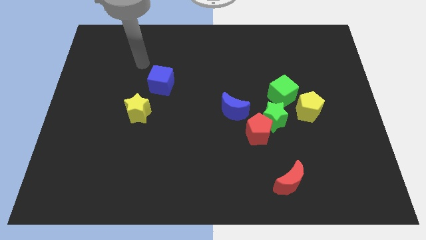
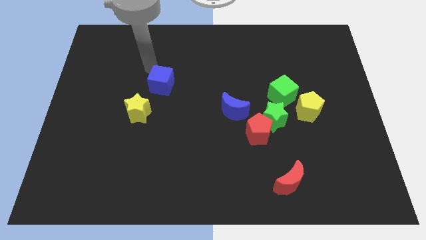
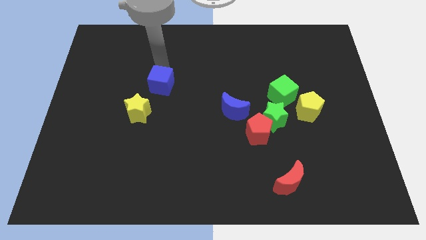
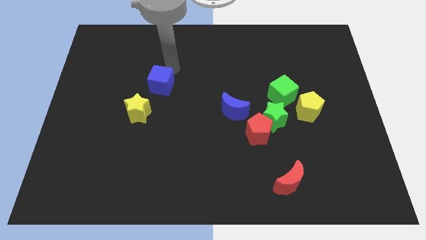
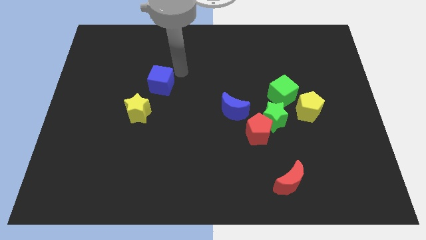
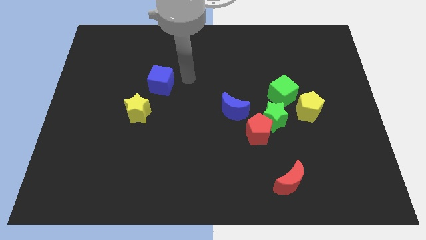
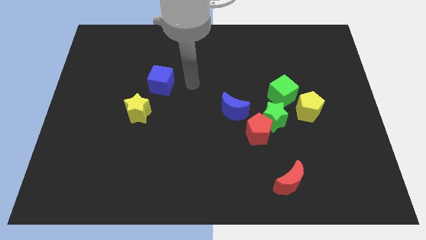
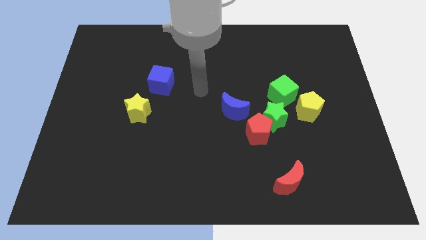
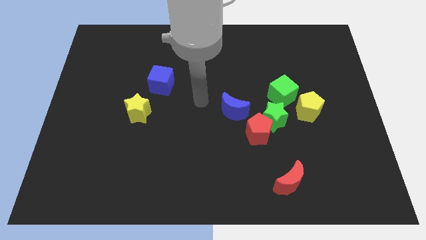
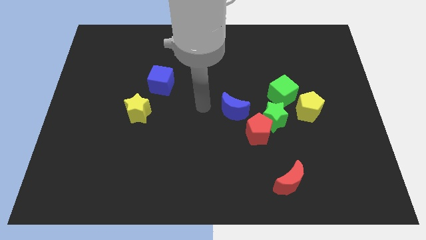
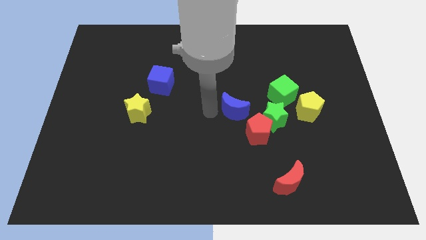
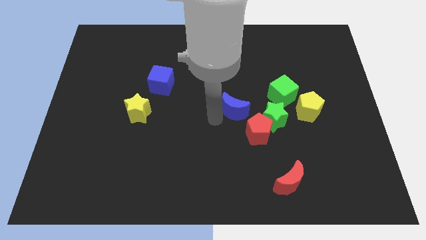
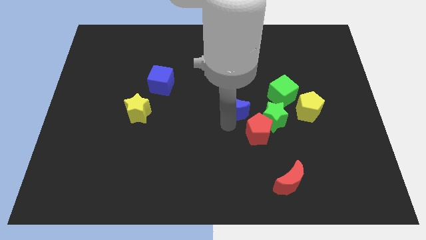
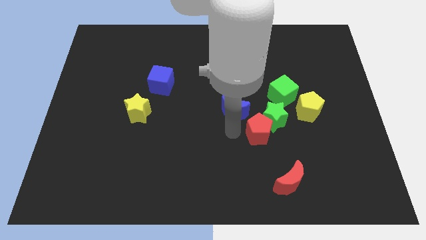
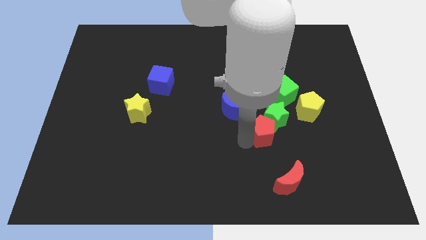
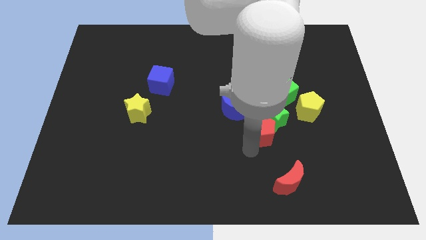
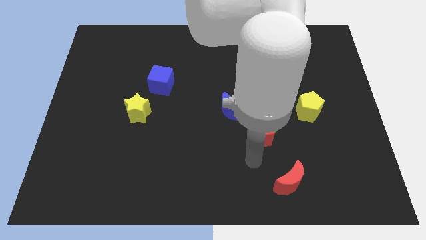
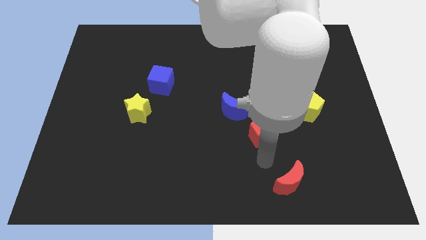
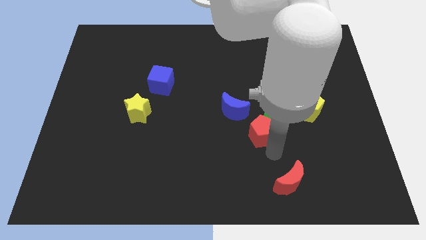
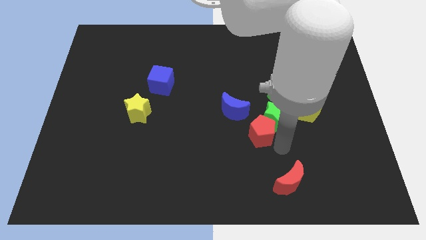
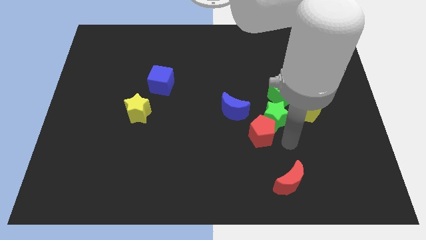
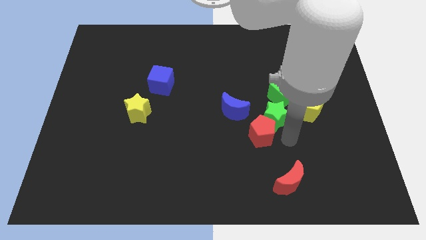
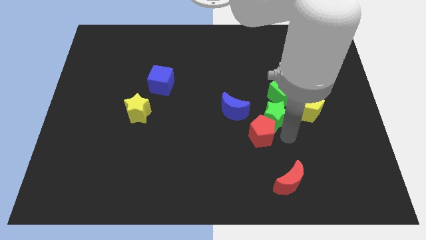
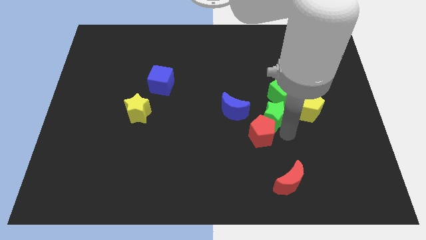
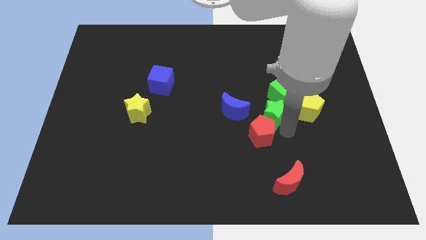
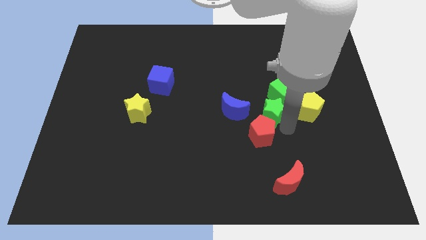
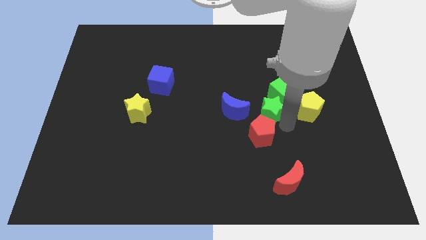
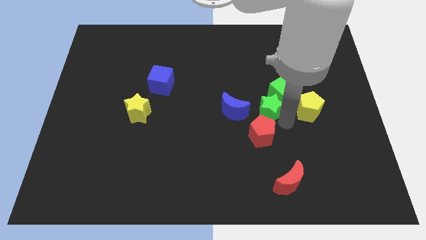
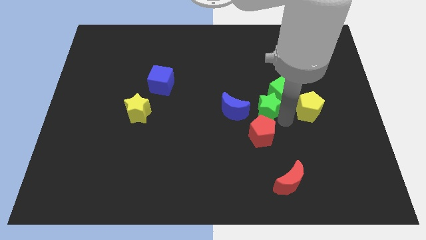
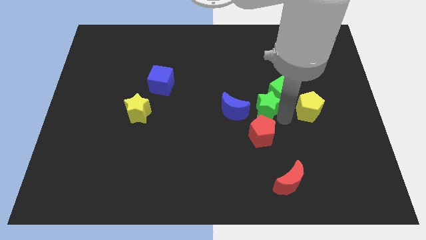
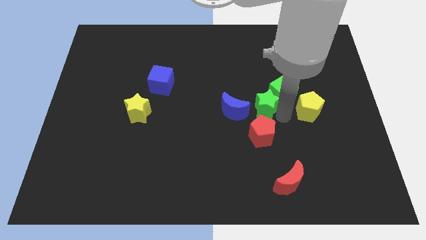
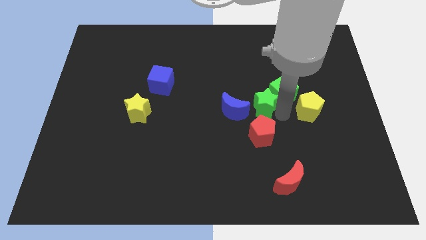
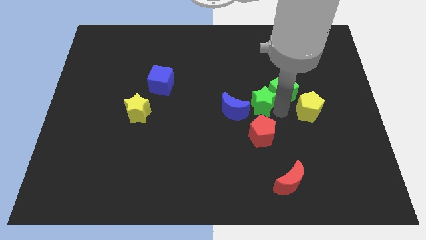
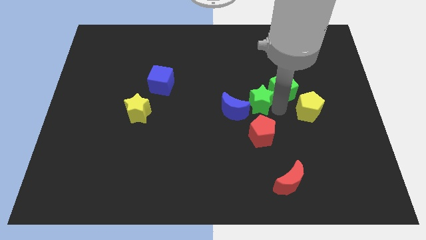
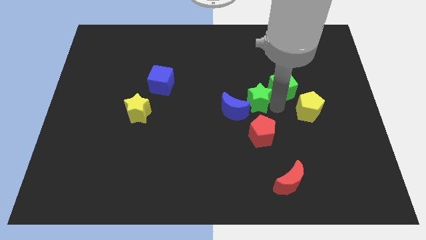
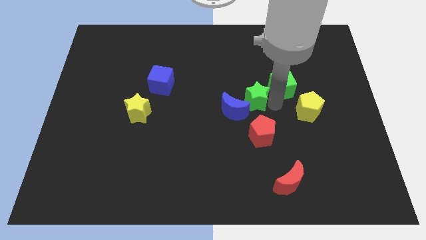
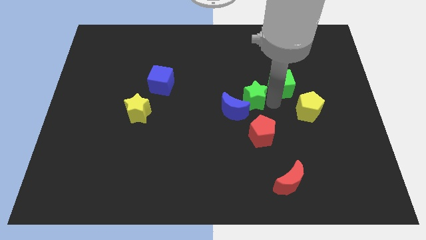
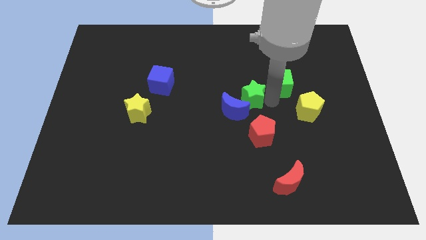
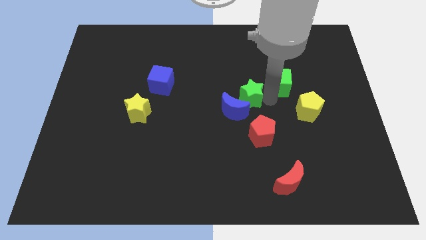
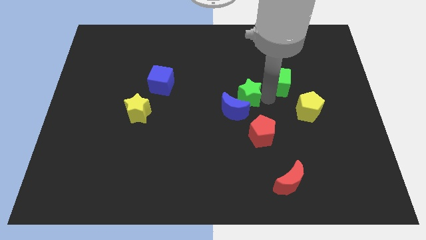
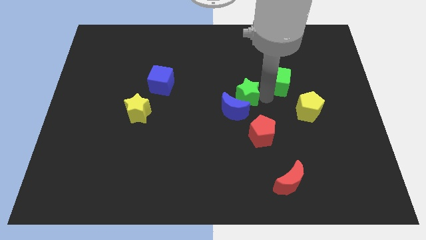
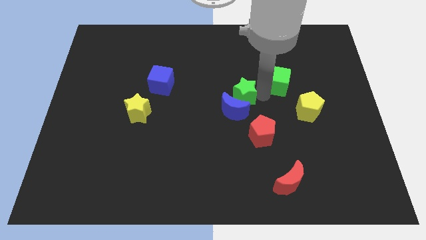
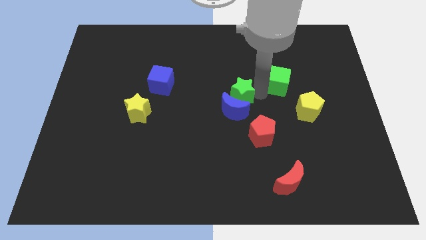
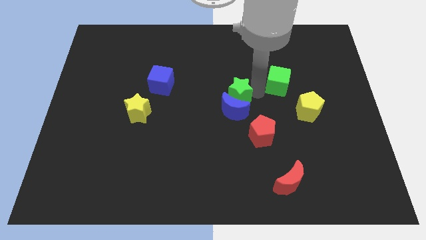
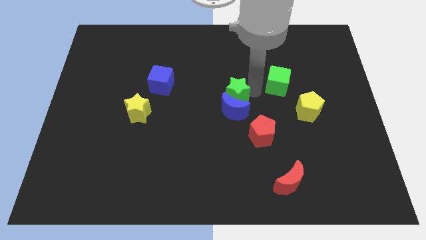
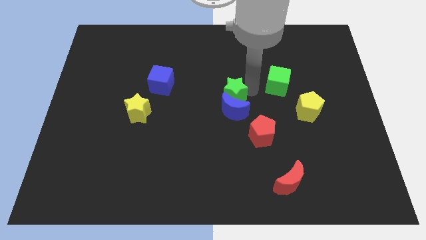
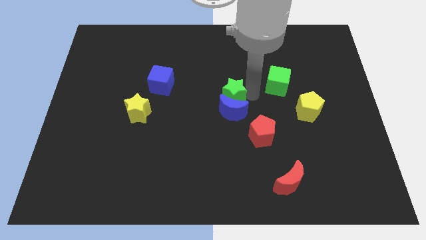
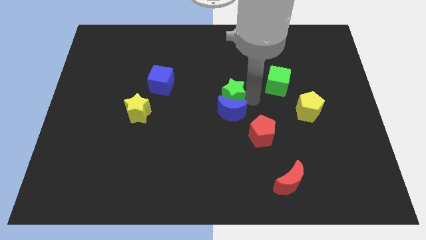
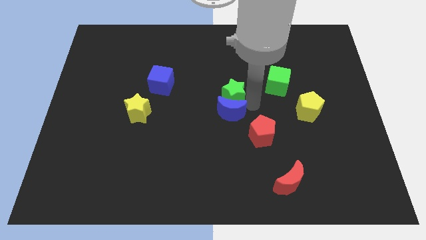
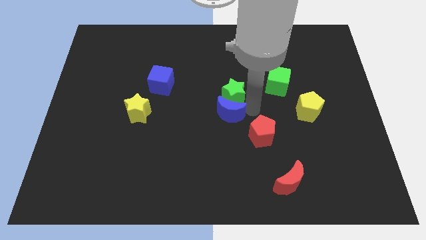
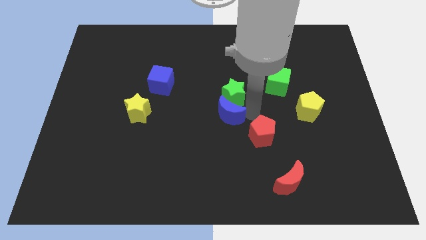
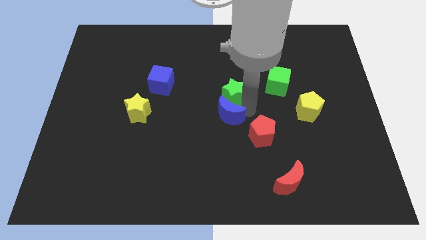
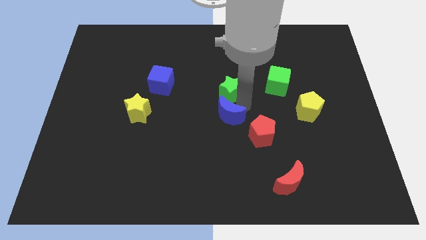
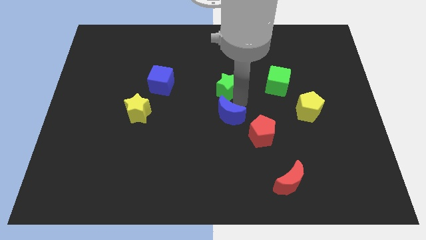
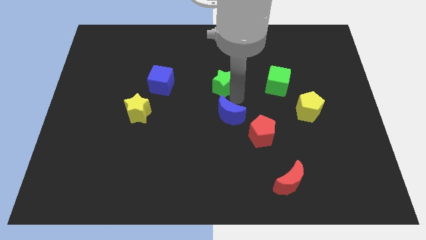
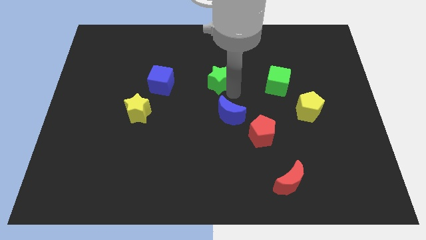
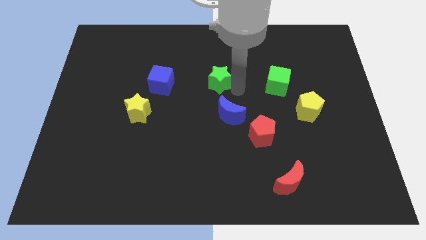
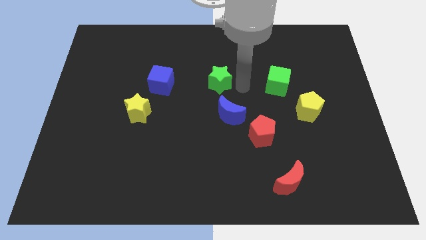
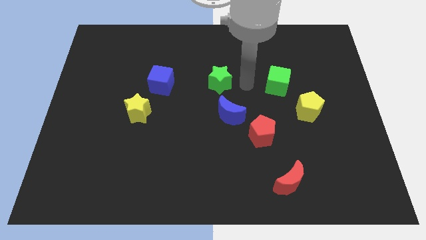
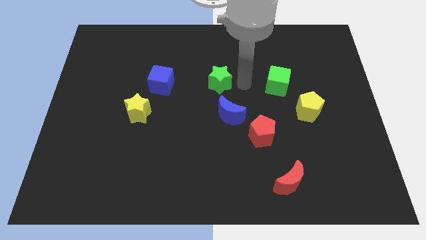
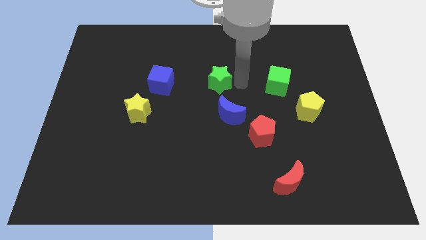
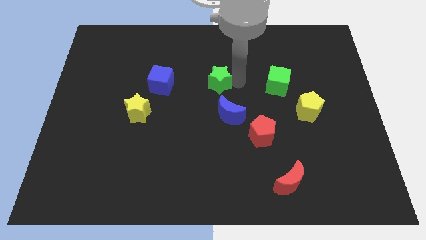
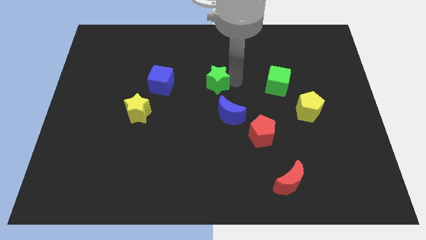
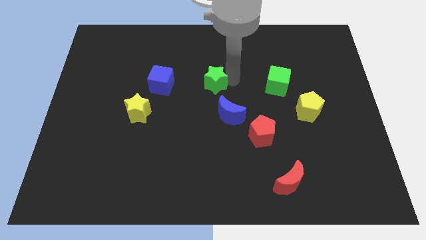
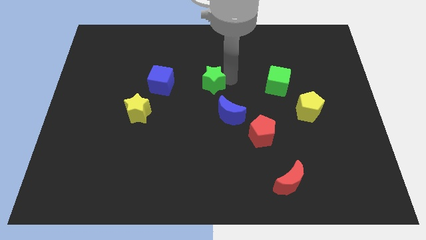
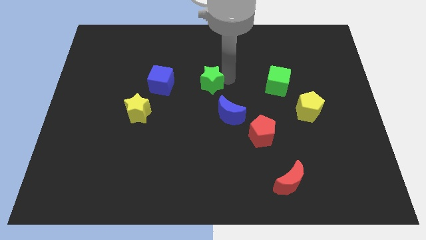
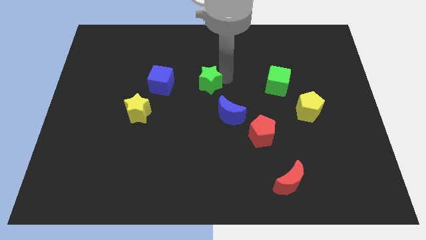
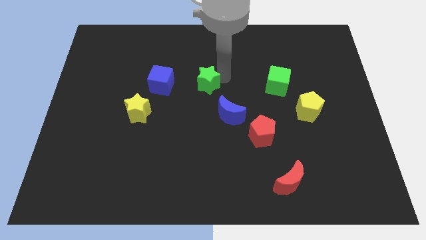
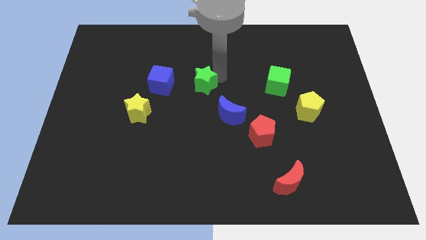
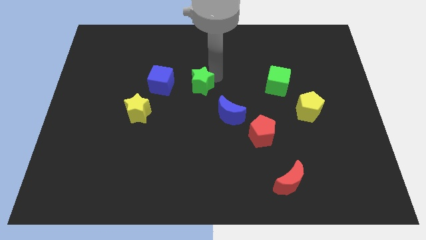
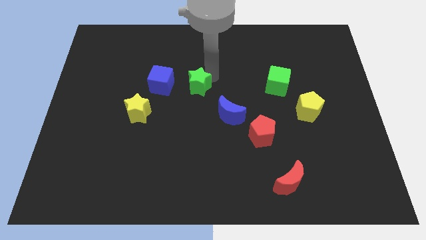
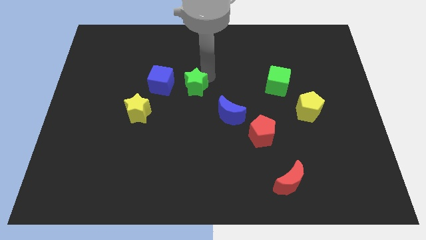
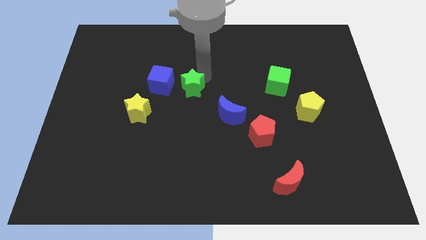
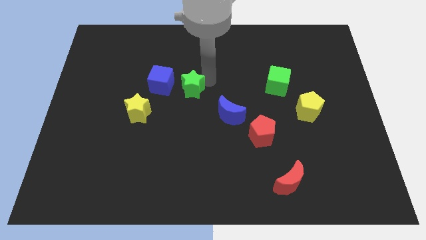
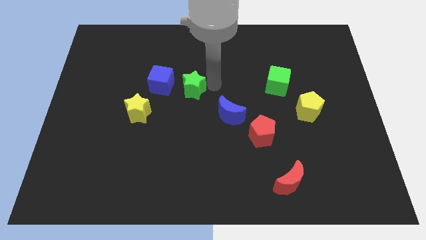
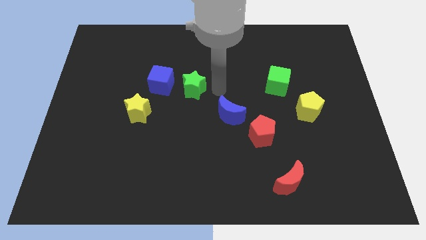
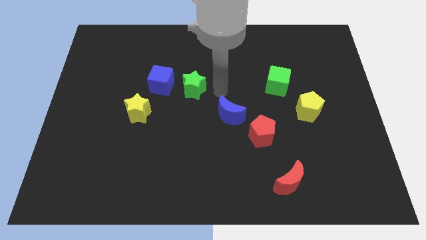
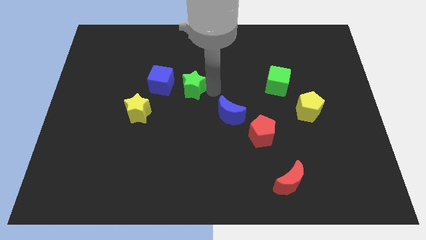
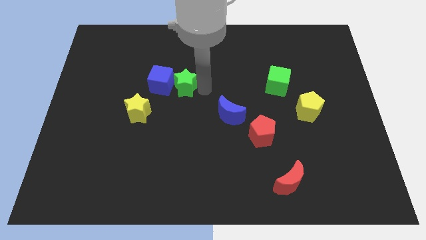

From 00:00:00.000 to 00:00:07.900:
move the green star close to the blue cube
